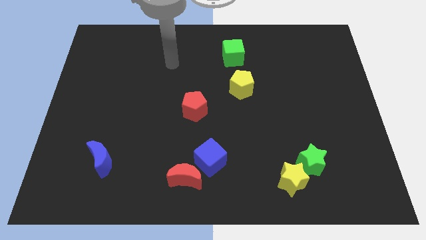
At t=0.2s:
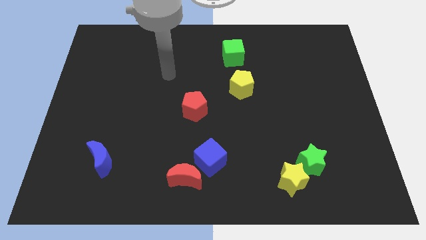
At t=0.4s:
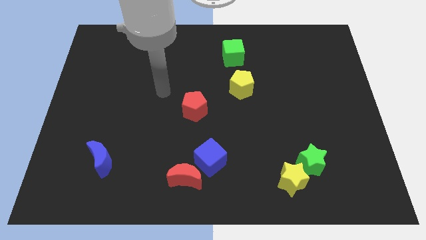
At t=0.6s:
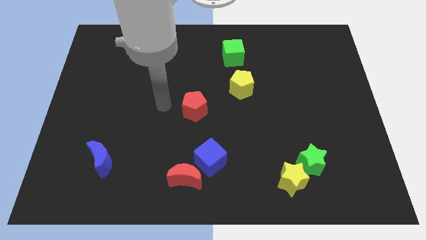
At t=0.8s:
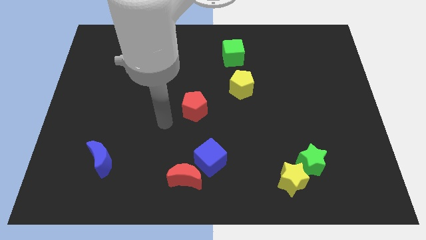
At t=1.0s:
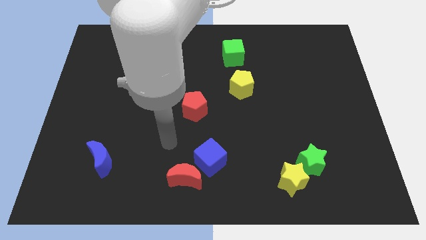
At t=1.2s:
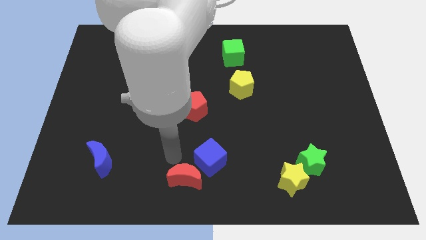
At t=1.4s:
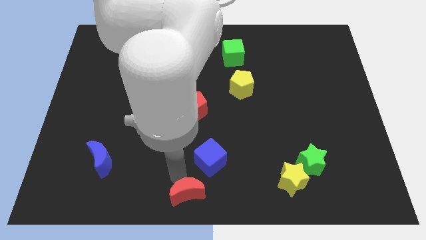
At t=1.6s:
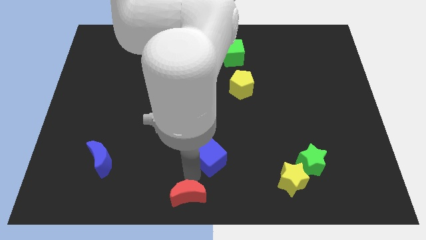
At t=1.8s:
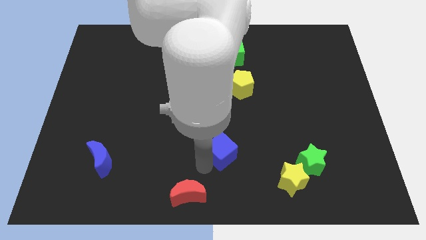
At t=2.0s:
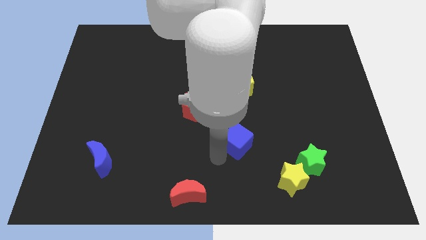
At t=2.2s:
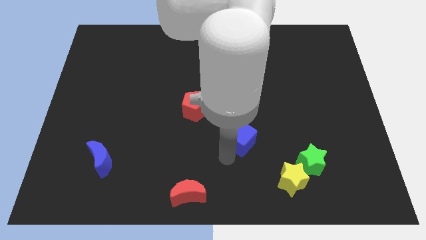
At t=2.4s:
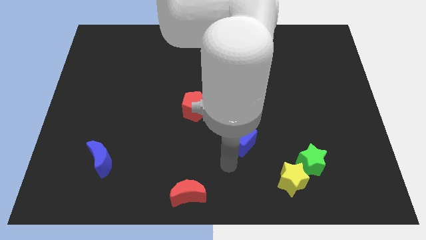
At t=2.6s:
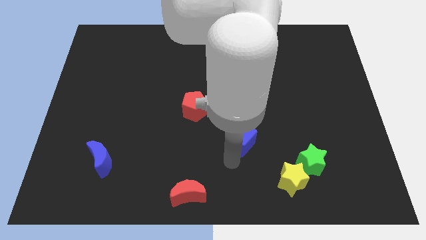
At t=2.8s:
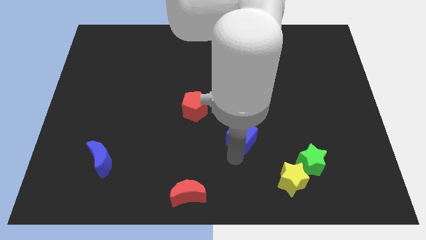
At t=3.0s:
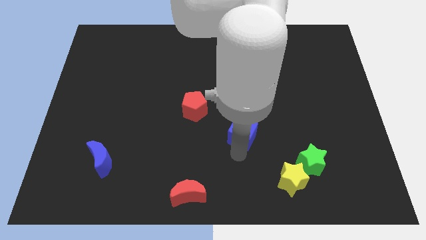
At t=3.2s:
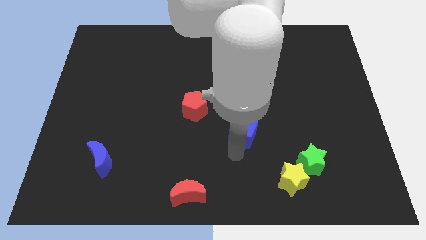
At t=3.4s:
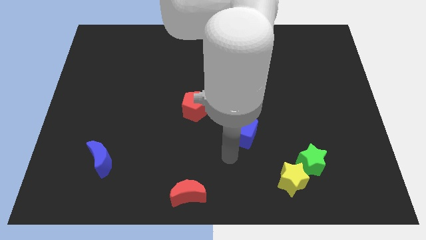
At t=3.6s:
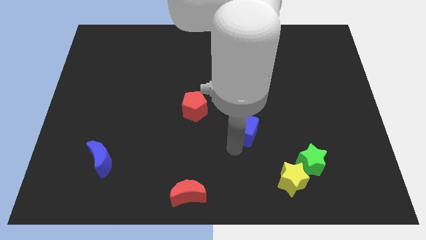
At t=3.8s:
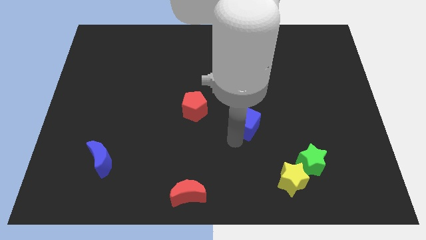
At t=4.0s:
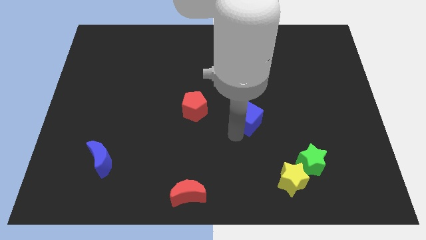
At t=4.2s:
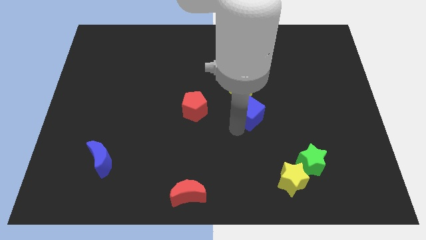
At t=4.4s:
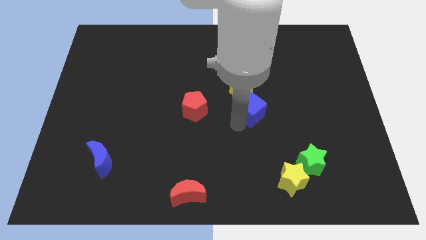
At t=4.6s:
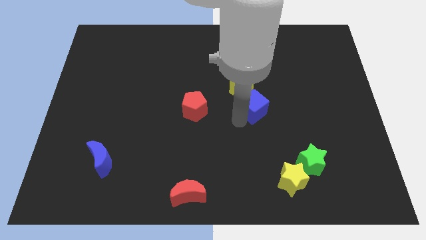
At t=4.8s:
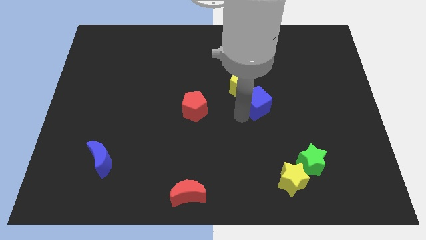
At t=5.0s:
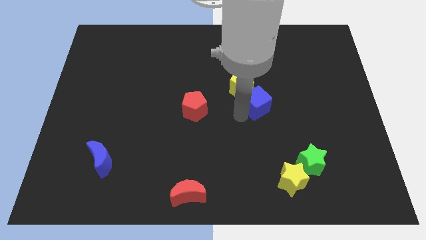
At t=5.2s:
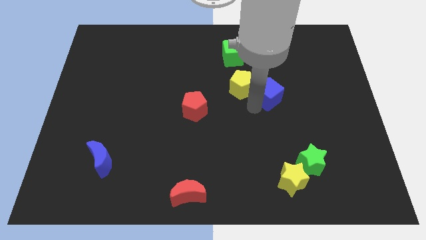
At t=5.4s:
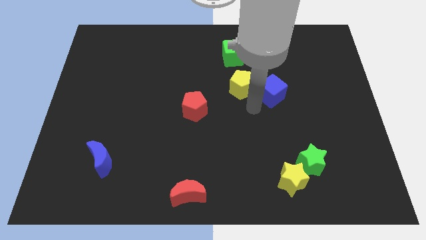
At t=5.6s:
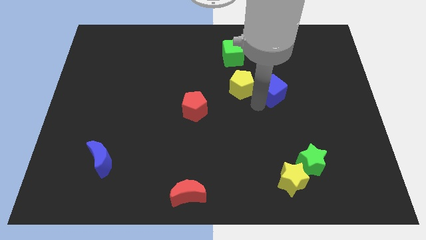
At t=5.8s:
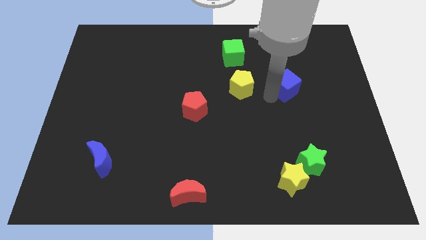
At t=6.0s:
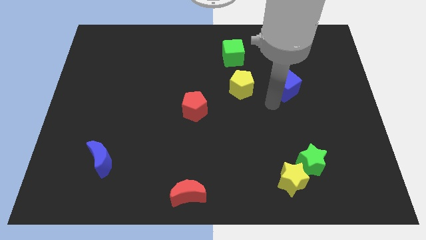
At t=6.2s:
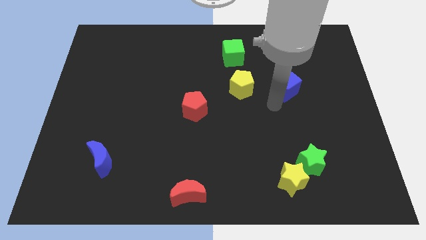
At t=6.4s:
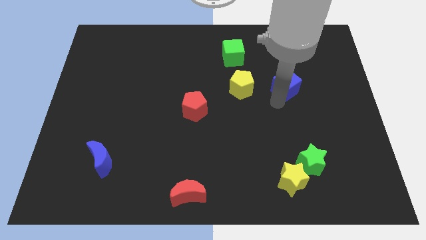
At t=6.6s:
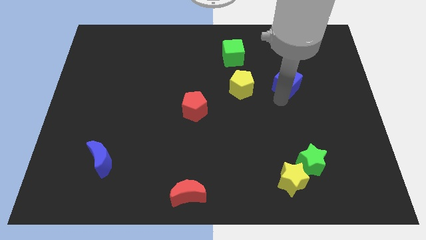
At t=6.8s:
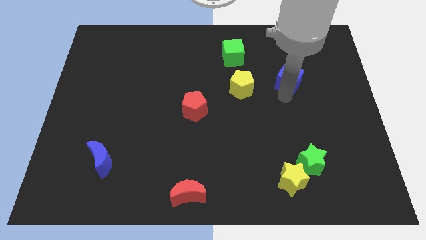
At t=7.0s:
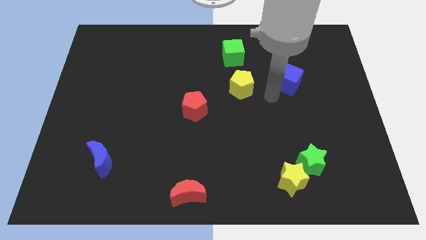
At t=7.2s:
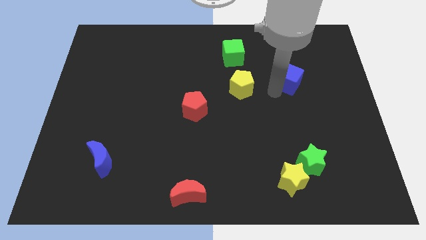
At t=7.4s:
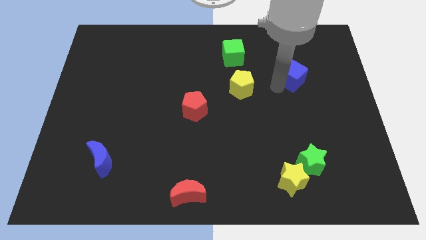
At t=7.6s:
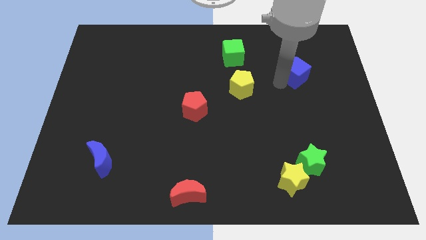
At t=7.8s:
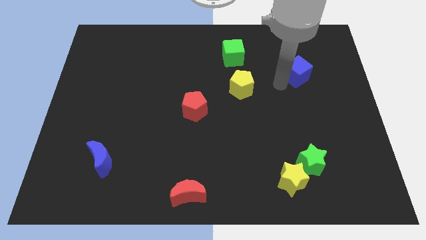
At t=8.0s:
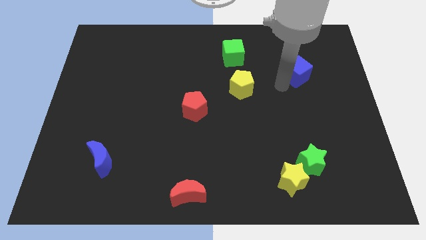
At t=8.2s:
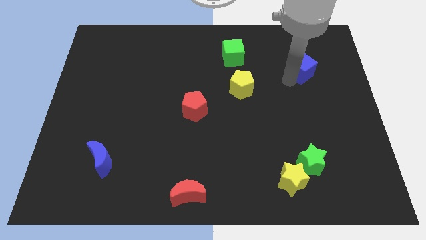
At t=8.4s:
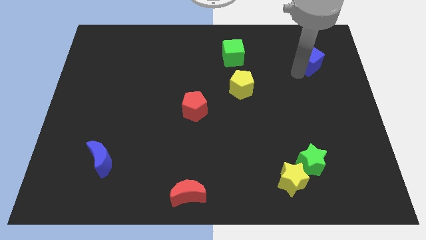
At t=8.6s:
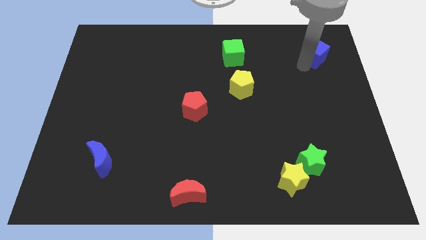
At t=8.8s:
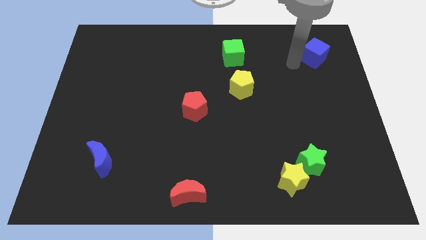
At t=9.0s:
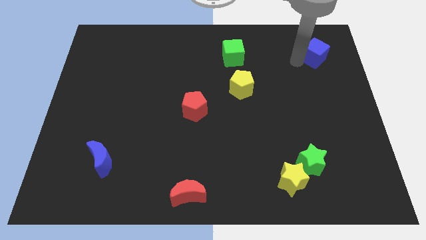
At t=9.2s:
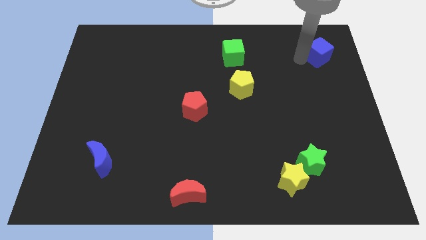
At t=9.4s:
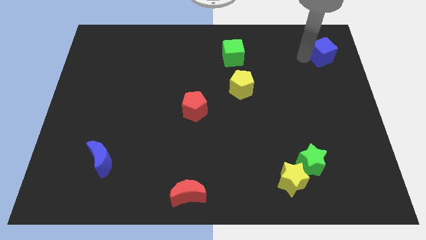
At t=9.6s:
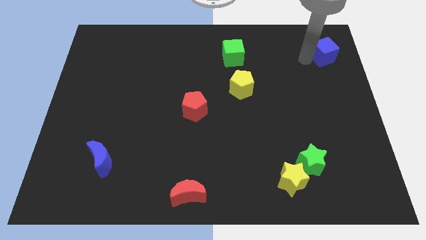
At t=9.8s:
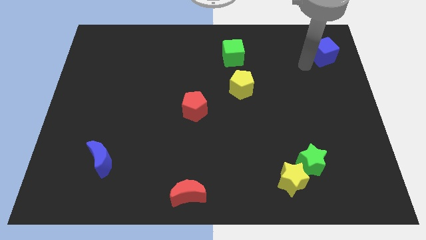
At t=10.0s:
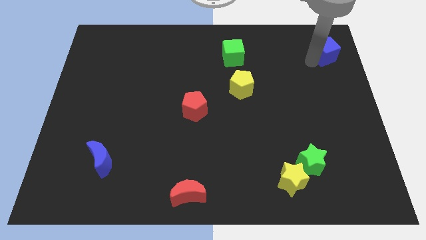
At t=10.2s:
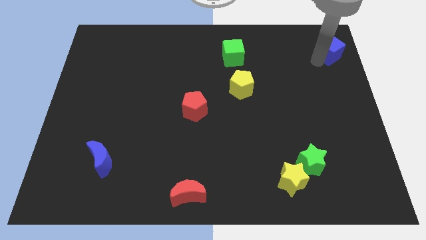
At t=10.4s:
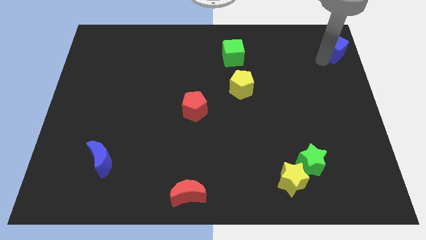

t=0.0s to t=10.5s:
move the blue cube to the upper right corner

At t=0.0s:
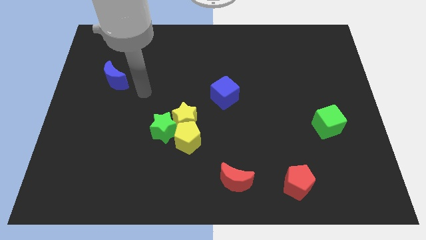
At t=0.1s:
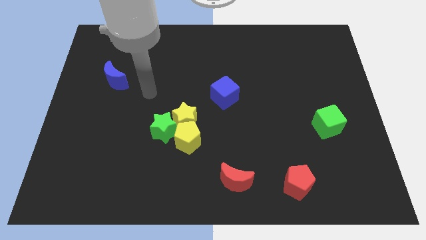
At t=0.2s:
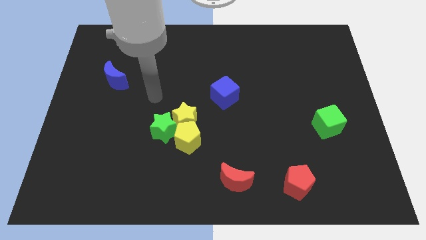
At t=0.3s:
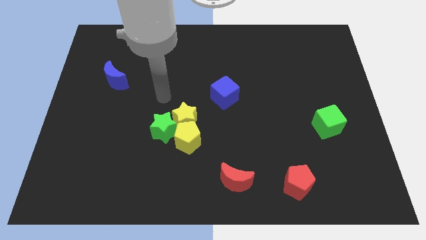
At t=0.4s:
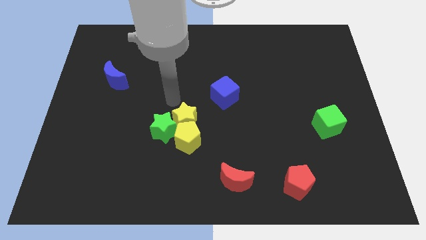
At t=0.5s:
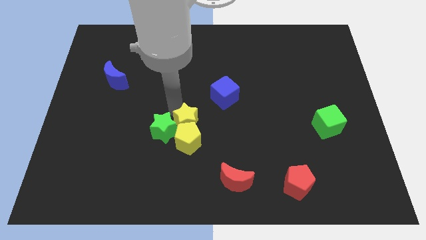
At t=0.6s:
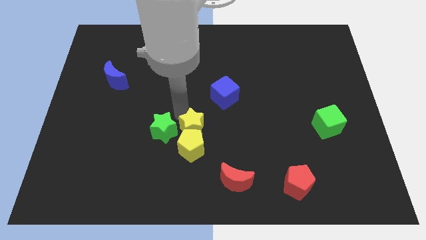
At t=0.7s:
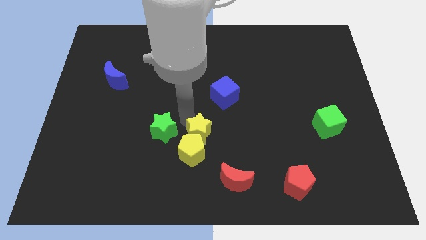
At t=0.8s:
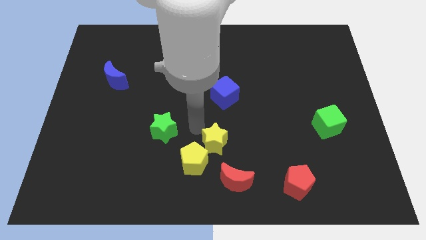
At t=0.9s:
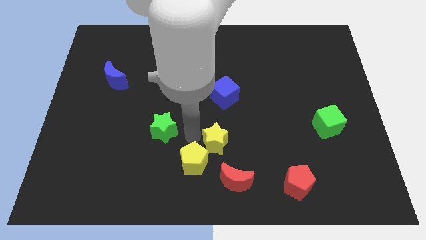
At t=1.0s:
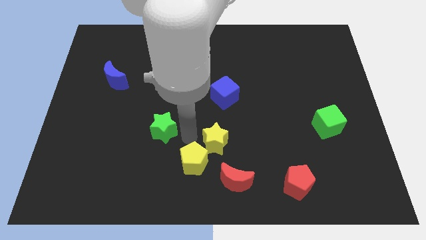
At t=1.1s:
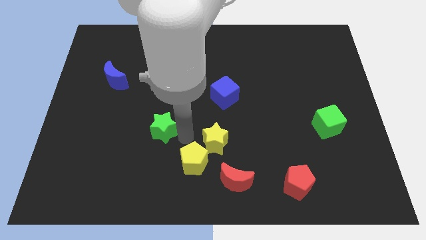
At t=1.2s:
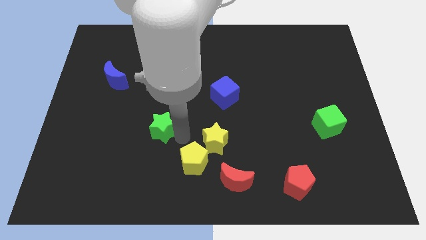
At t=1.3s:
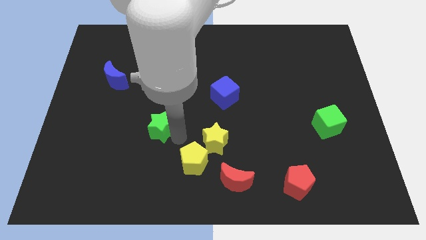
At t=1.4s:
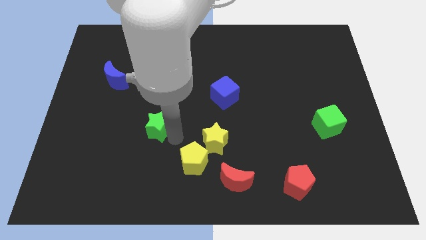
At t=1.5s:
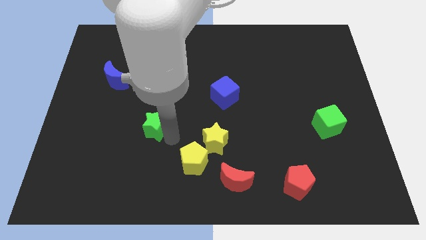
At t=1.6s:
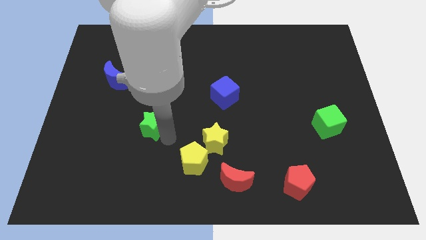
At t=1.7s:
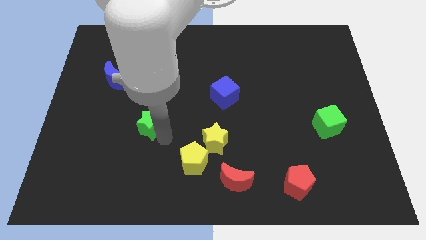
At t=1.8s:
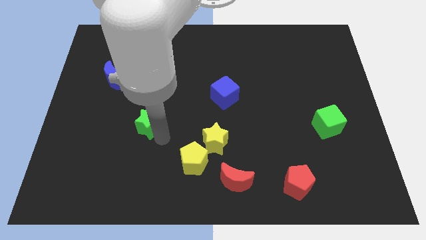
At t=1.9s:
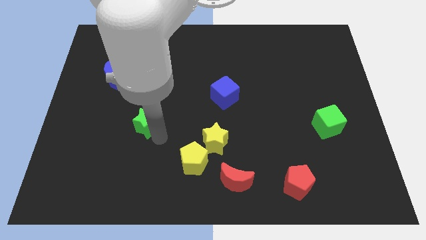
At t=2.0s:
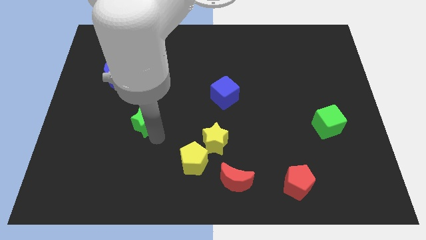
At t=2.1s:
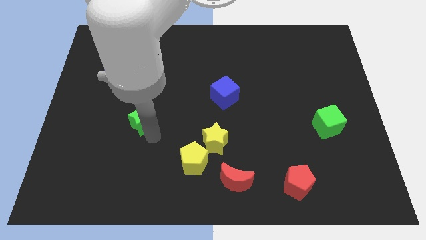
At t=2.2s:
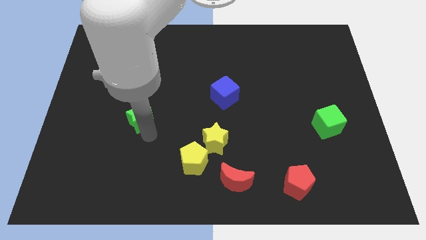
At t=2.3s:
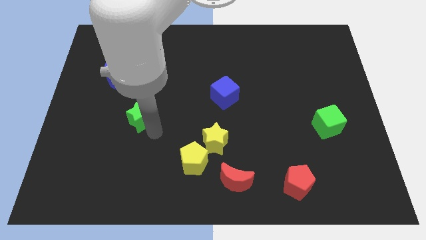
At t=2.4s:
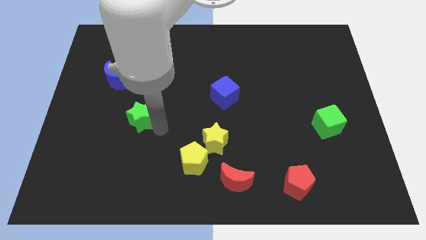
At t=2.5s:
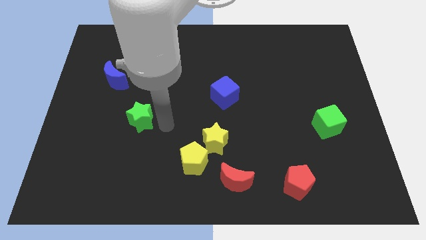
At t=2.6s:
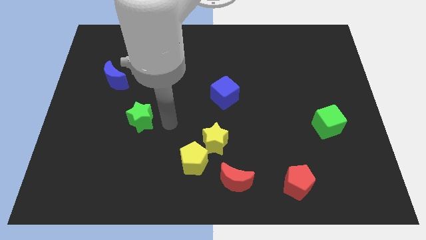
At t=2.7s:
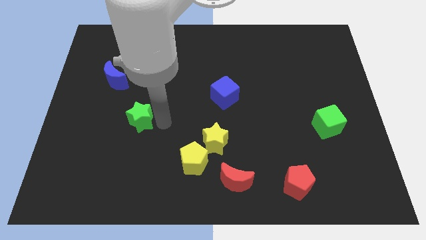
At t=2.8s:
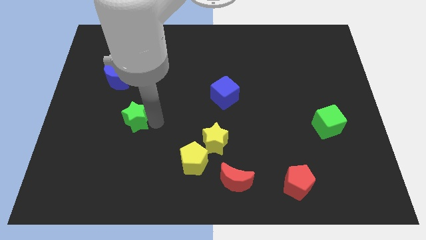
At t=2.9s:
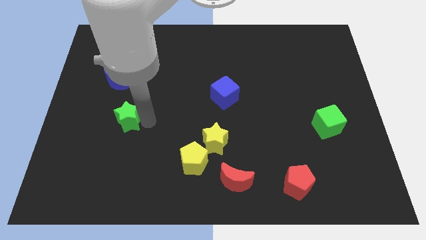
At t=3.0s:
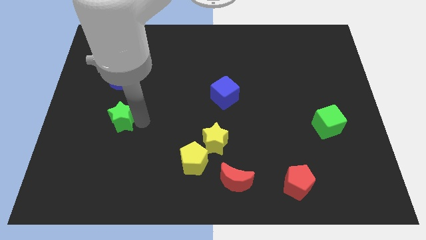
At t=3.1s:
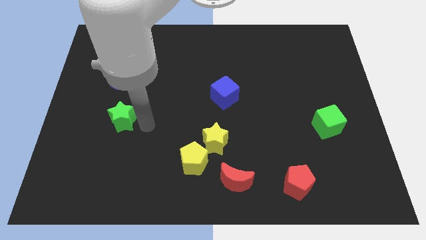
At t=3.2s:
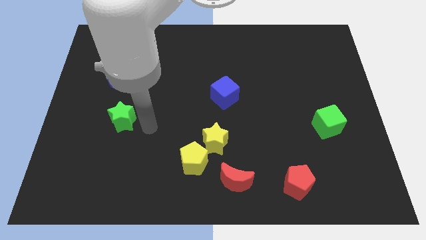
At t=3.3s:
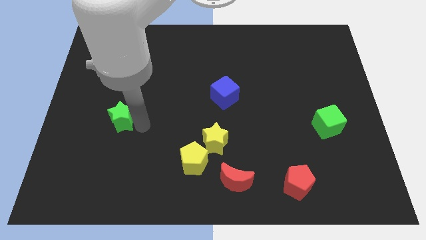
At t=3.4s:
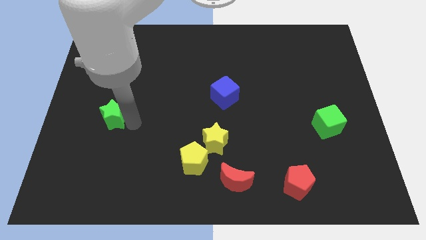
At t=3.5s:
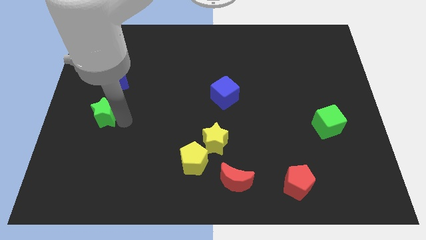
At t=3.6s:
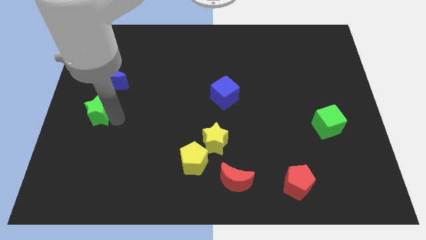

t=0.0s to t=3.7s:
put the green star to the left side
